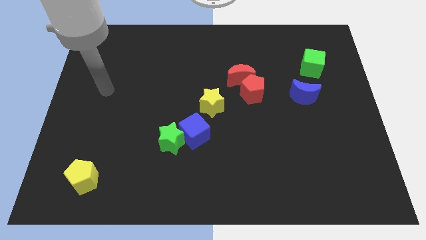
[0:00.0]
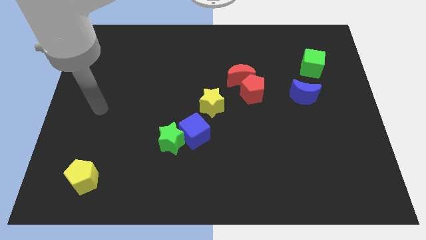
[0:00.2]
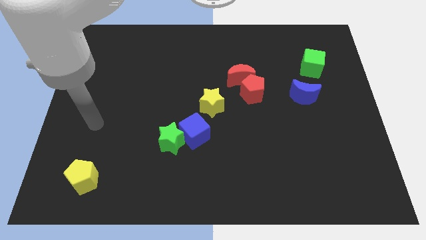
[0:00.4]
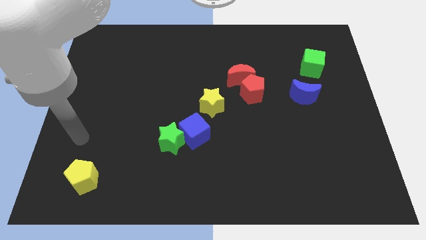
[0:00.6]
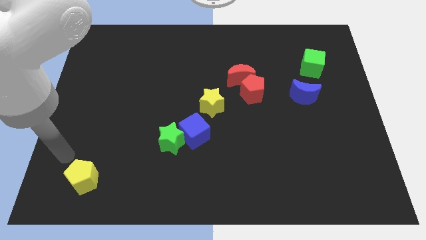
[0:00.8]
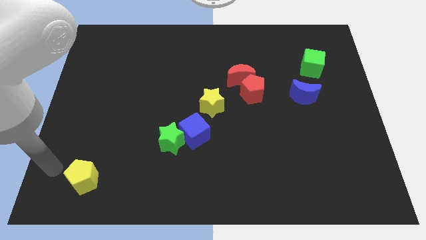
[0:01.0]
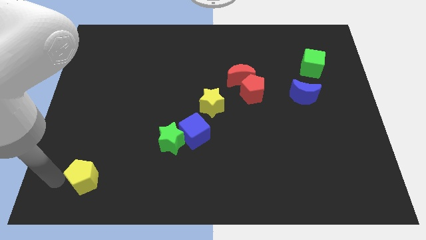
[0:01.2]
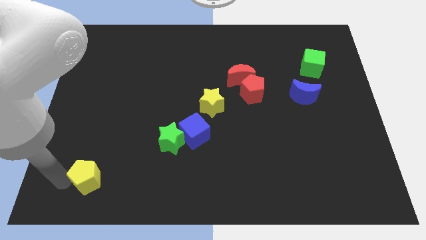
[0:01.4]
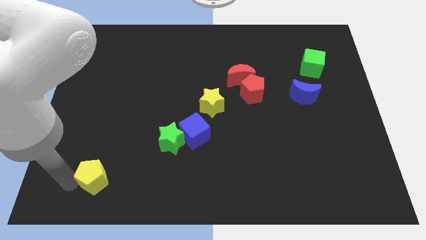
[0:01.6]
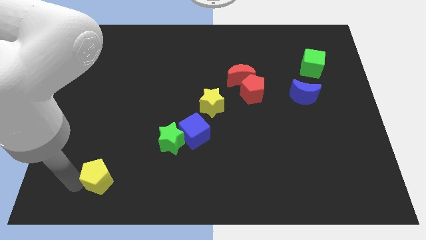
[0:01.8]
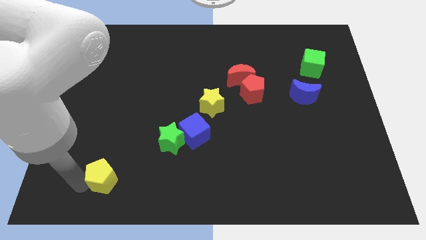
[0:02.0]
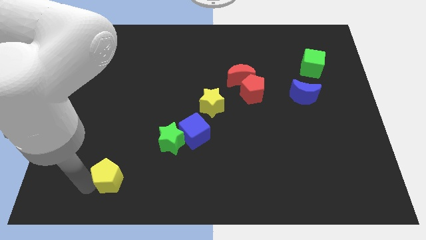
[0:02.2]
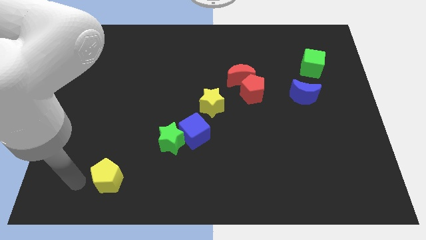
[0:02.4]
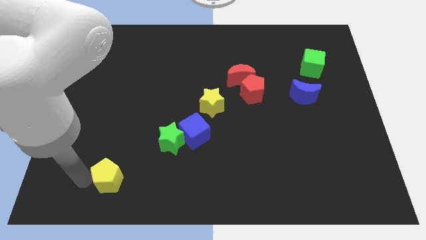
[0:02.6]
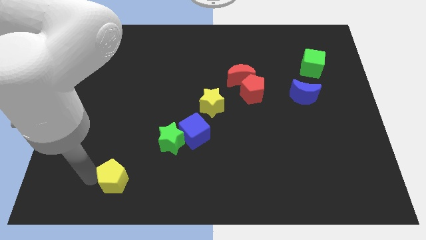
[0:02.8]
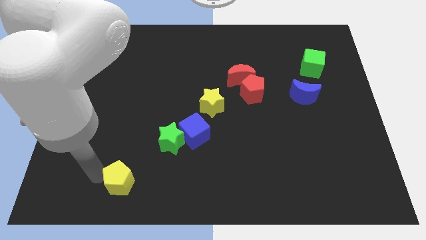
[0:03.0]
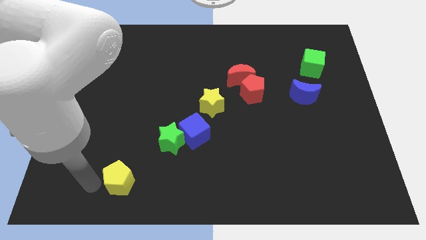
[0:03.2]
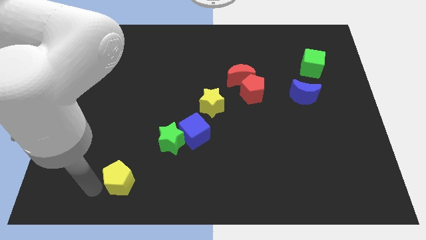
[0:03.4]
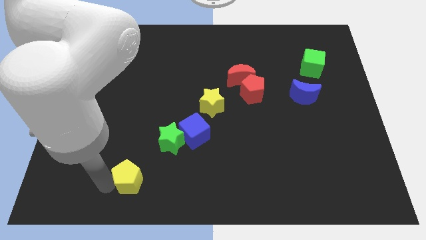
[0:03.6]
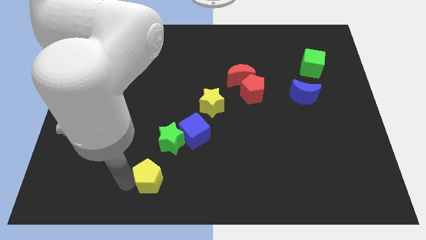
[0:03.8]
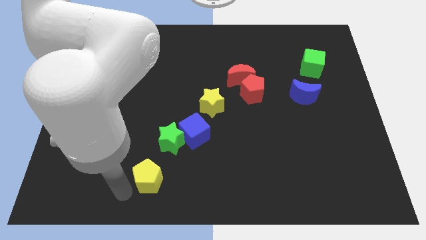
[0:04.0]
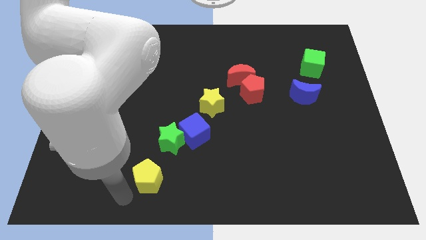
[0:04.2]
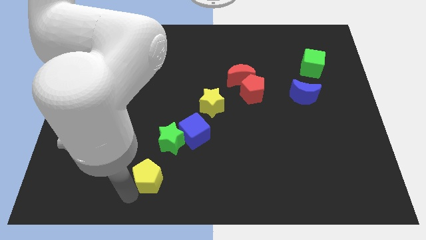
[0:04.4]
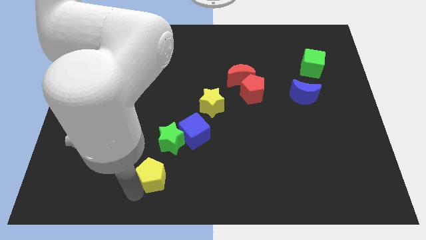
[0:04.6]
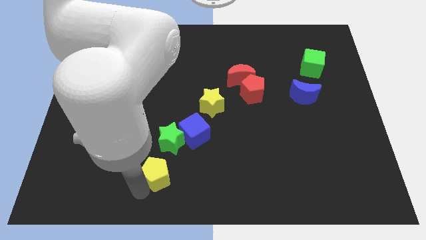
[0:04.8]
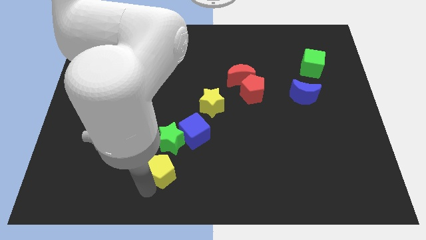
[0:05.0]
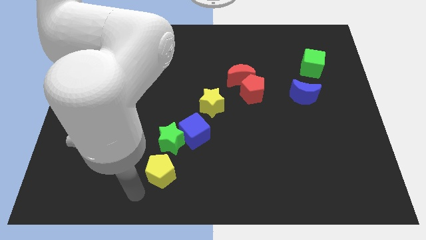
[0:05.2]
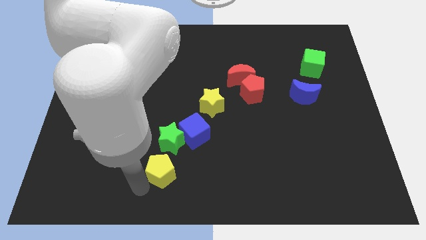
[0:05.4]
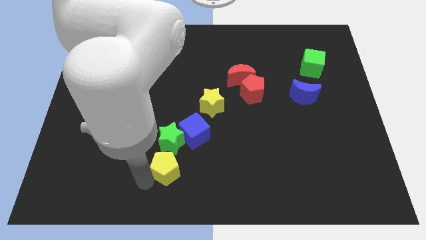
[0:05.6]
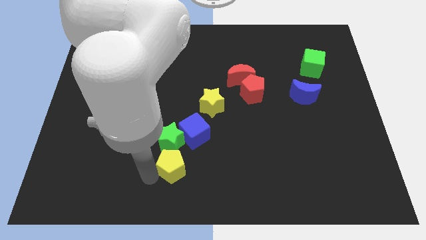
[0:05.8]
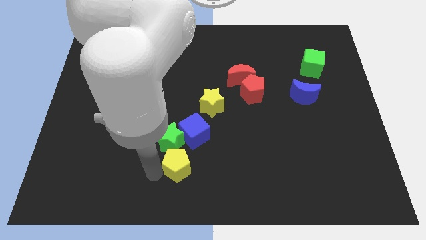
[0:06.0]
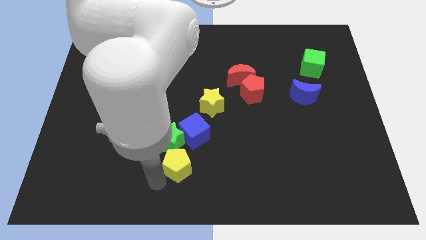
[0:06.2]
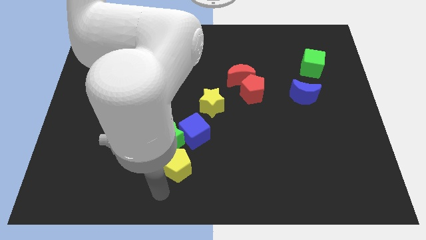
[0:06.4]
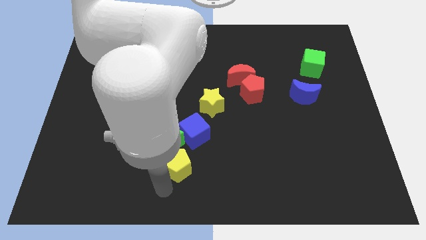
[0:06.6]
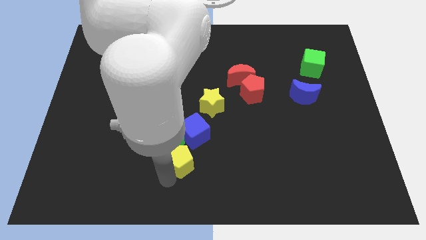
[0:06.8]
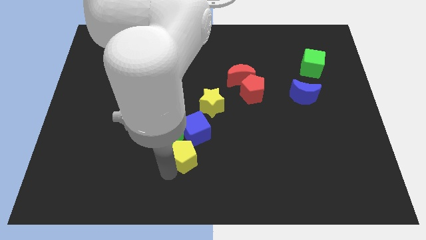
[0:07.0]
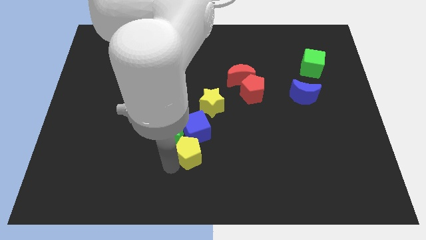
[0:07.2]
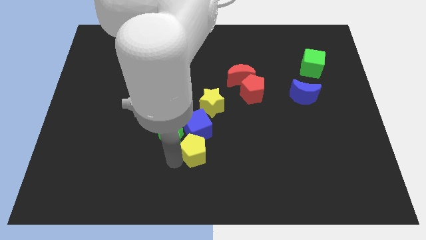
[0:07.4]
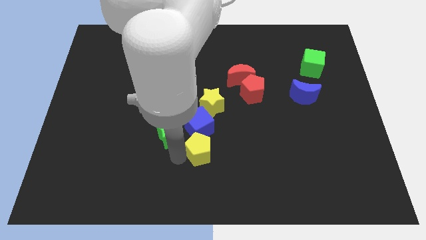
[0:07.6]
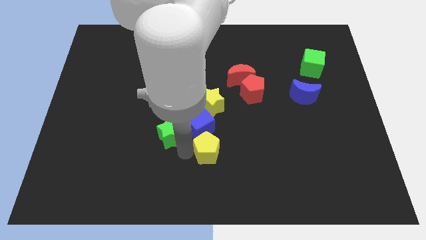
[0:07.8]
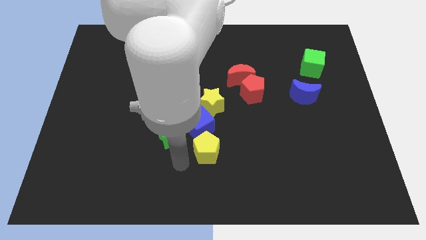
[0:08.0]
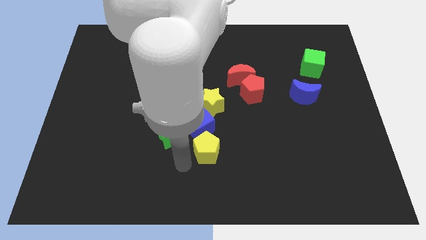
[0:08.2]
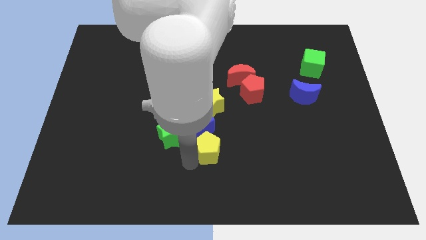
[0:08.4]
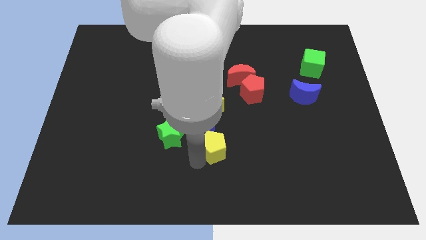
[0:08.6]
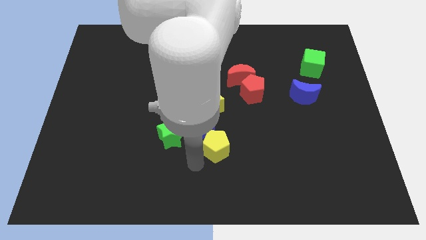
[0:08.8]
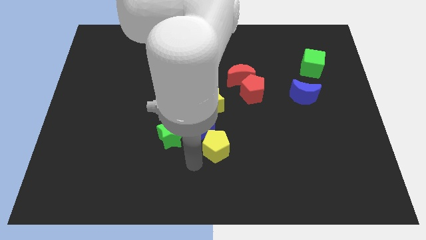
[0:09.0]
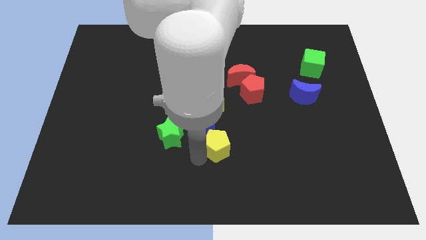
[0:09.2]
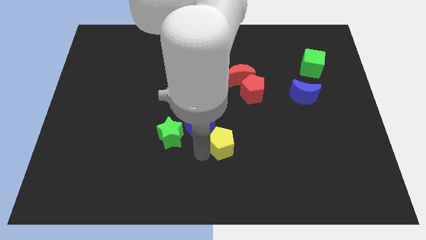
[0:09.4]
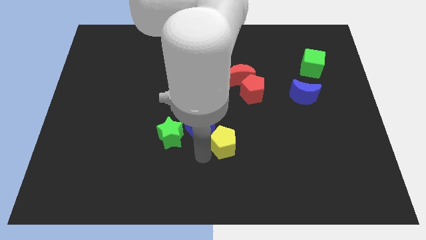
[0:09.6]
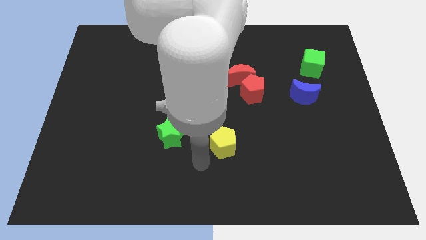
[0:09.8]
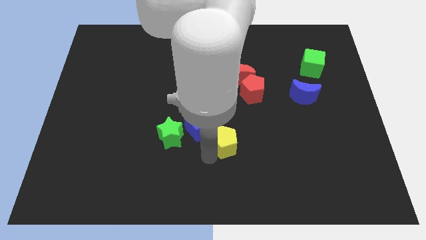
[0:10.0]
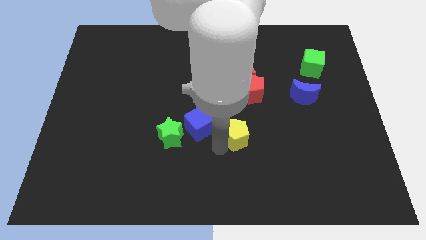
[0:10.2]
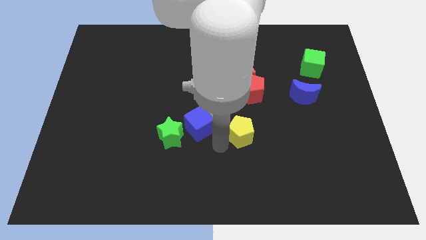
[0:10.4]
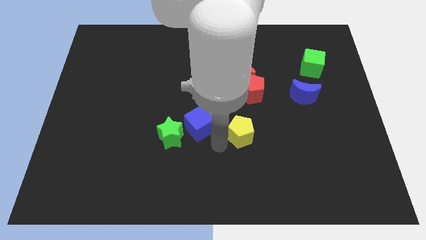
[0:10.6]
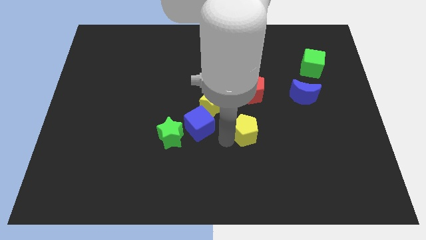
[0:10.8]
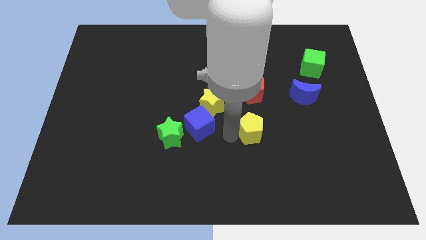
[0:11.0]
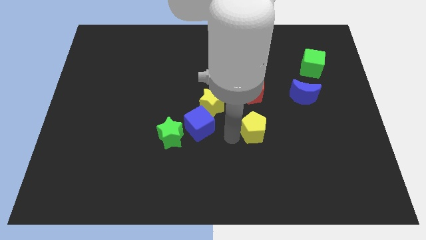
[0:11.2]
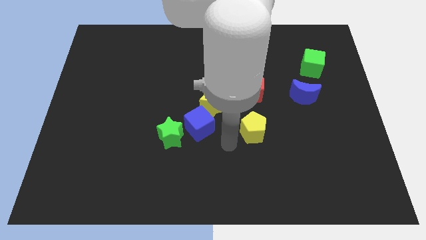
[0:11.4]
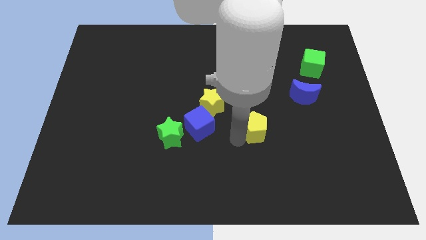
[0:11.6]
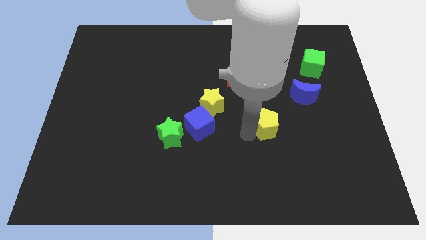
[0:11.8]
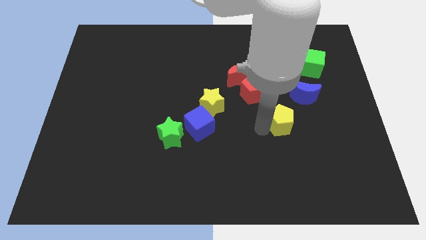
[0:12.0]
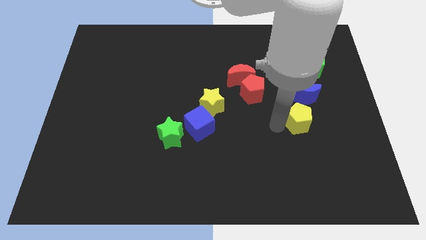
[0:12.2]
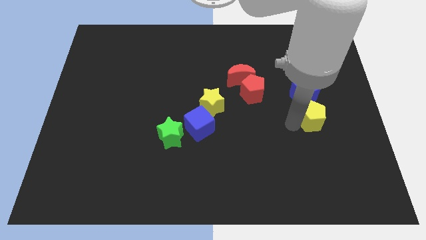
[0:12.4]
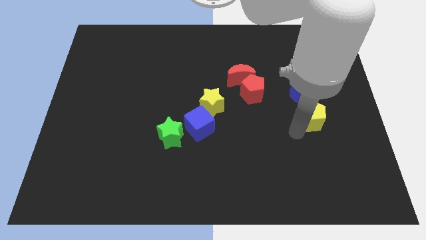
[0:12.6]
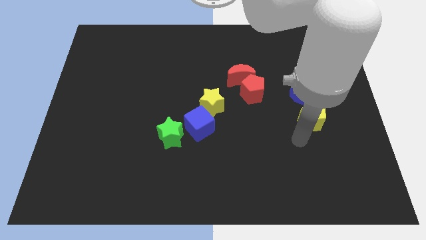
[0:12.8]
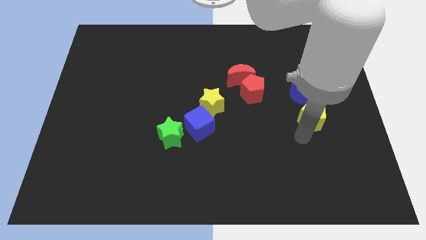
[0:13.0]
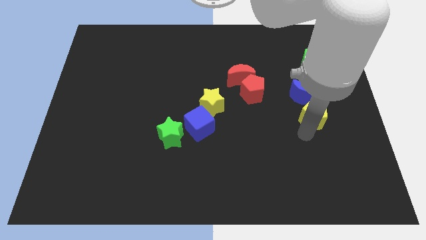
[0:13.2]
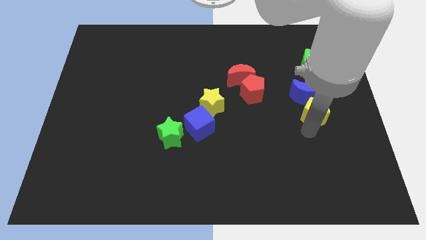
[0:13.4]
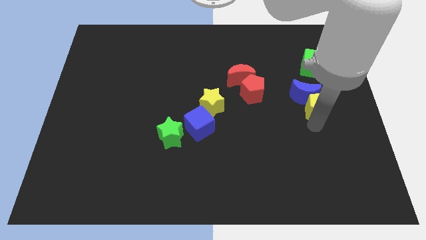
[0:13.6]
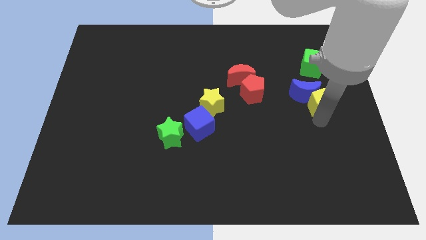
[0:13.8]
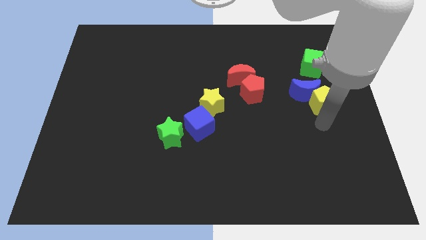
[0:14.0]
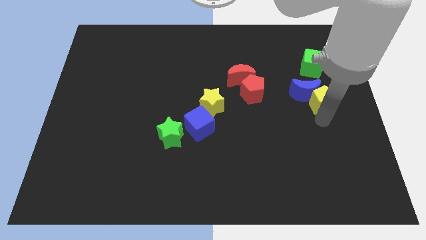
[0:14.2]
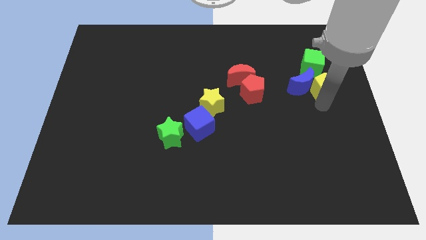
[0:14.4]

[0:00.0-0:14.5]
push the yellow pentagon to the top right side of the blue moon
